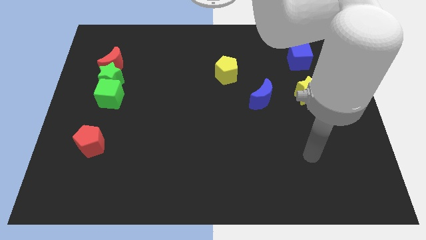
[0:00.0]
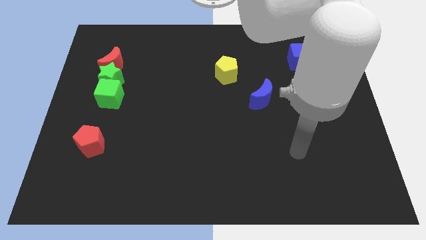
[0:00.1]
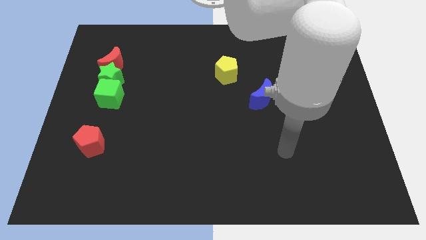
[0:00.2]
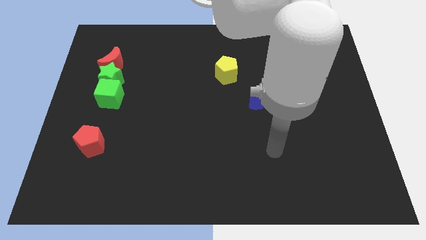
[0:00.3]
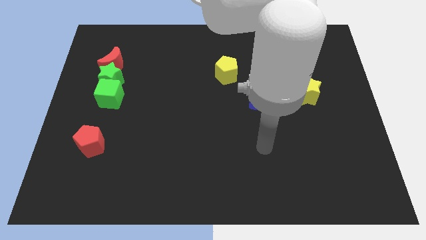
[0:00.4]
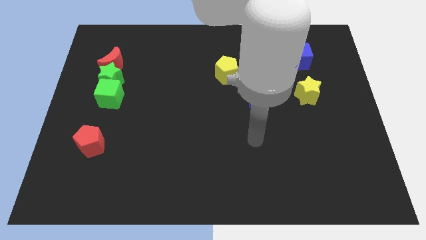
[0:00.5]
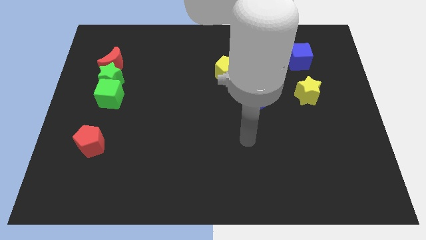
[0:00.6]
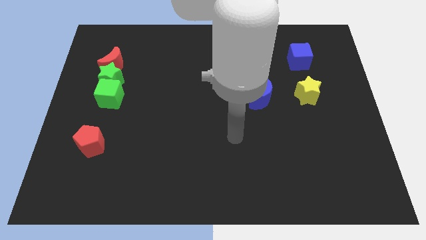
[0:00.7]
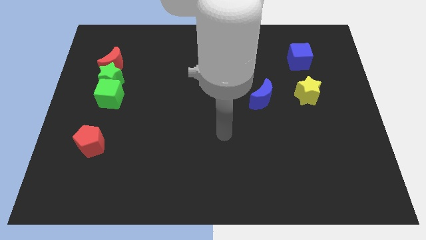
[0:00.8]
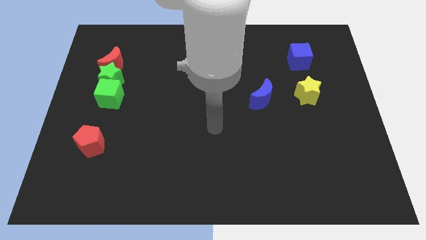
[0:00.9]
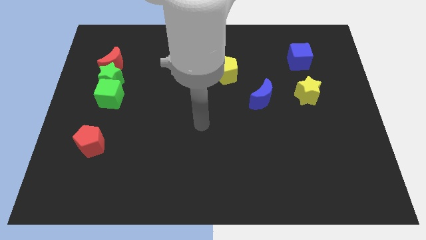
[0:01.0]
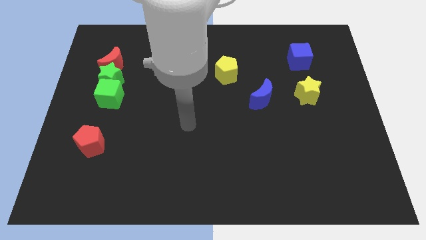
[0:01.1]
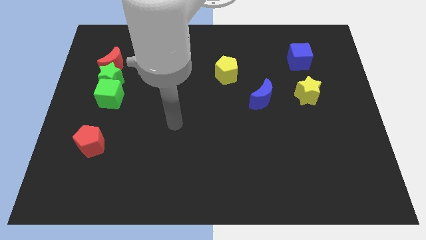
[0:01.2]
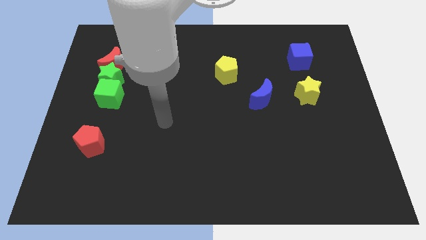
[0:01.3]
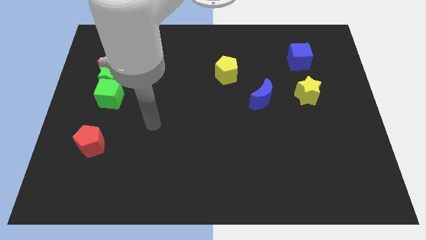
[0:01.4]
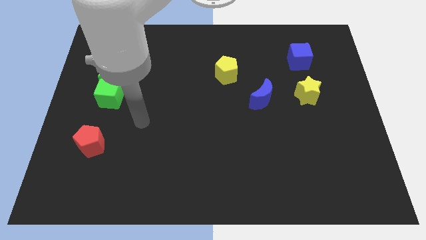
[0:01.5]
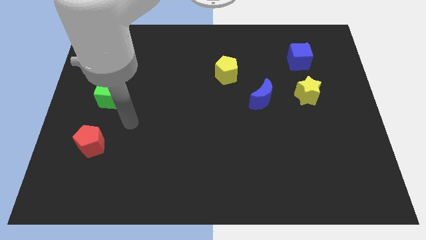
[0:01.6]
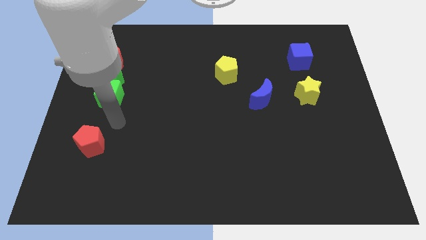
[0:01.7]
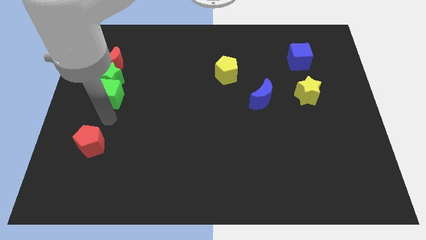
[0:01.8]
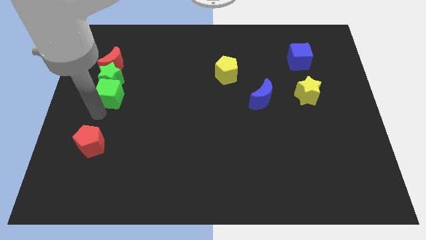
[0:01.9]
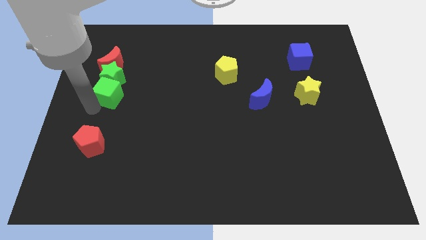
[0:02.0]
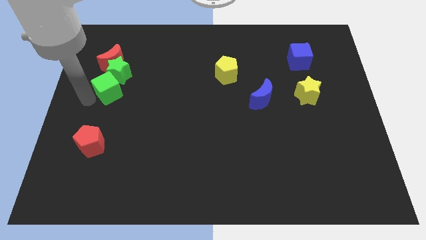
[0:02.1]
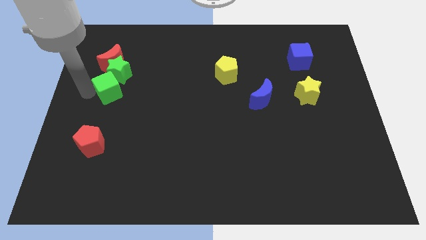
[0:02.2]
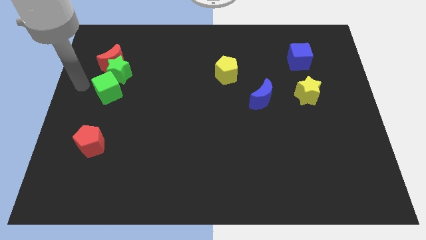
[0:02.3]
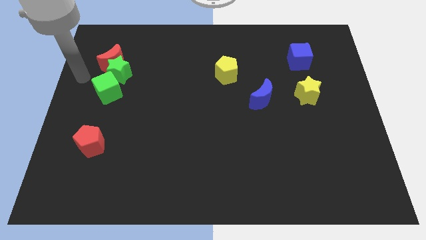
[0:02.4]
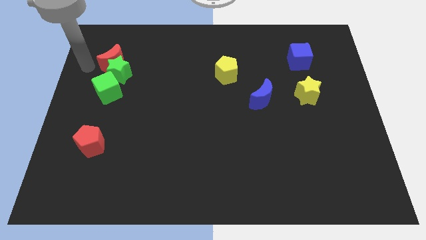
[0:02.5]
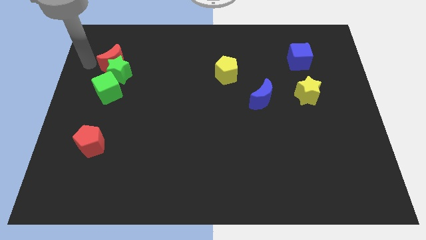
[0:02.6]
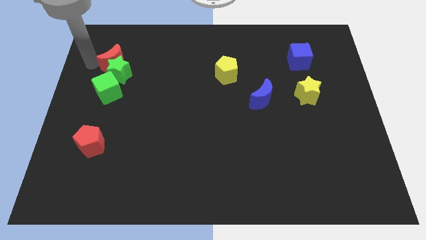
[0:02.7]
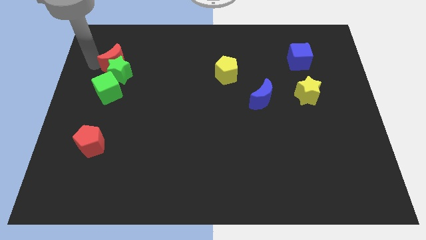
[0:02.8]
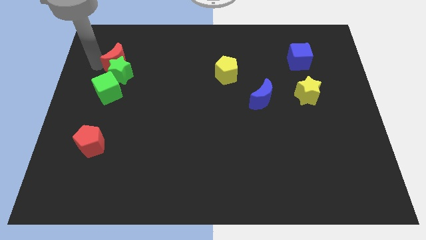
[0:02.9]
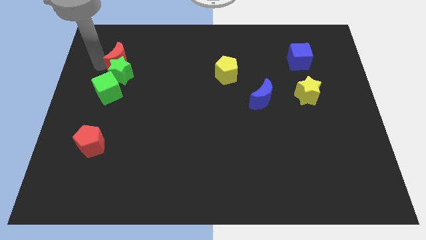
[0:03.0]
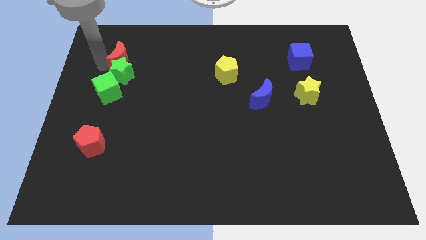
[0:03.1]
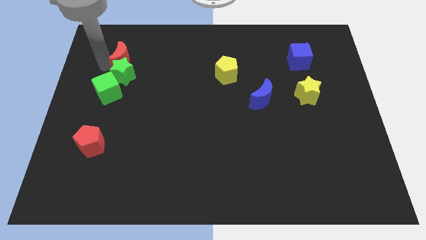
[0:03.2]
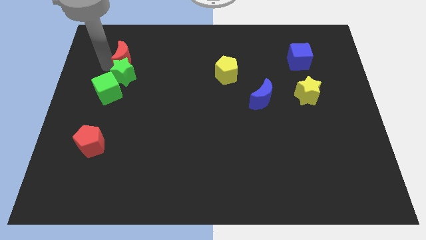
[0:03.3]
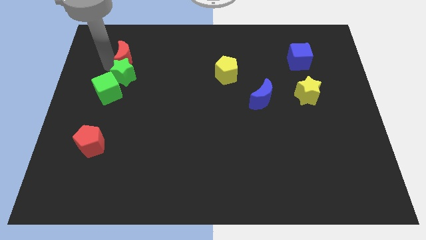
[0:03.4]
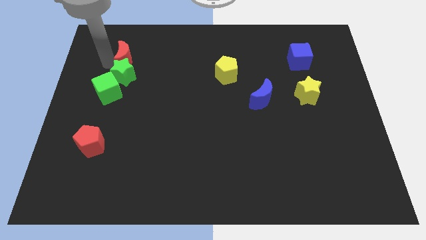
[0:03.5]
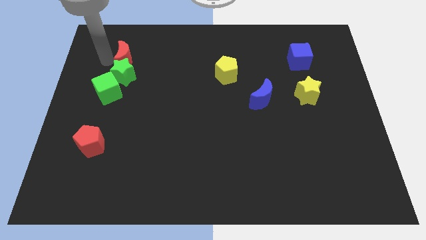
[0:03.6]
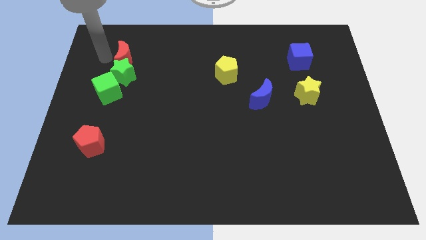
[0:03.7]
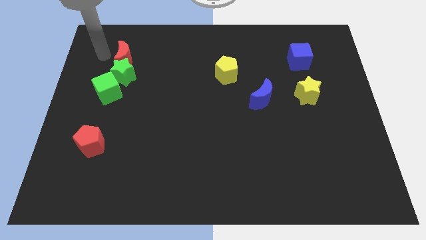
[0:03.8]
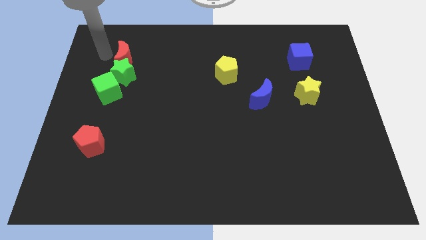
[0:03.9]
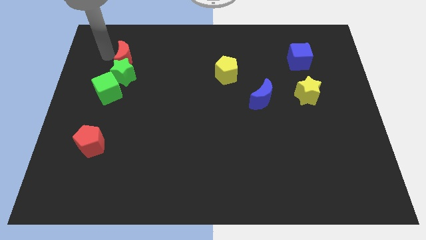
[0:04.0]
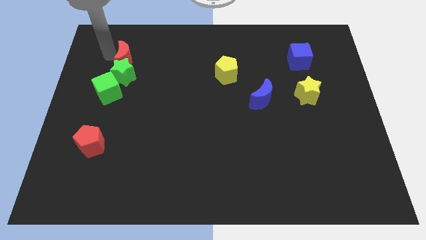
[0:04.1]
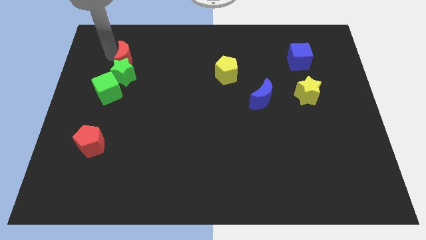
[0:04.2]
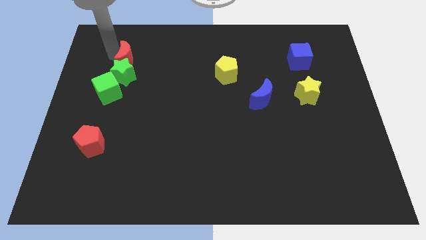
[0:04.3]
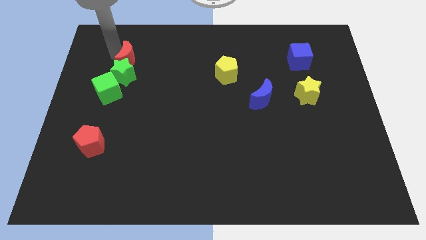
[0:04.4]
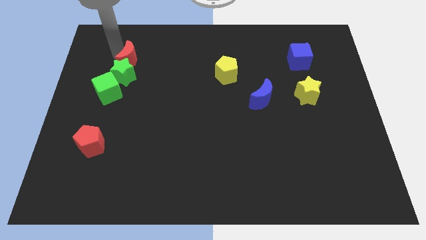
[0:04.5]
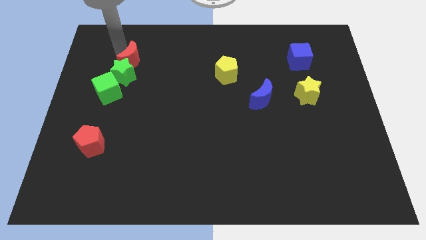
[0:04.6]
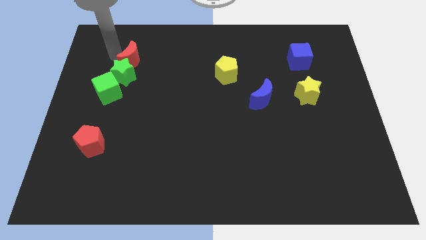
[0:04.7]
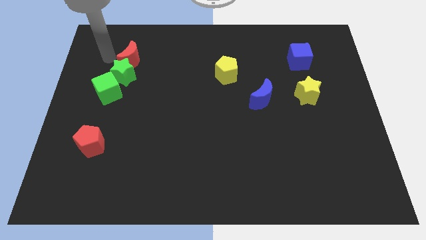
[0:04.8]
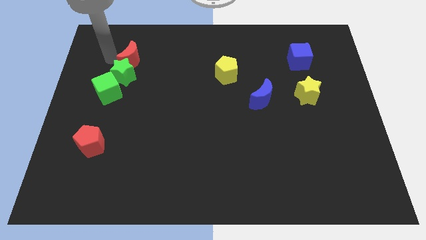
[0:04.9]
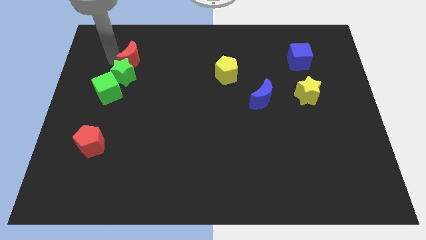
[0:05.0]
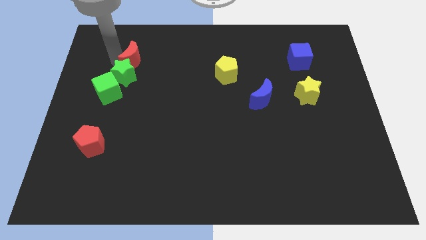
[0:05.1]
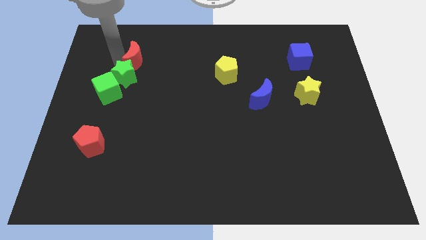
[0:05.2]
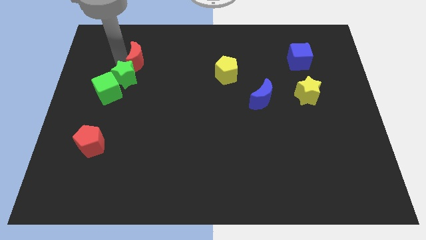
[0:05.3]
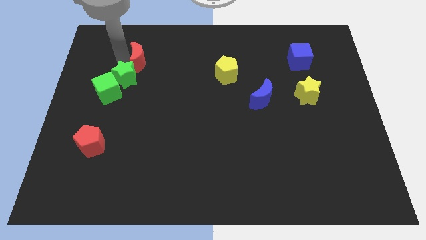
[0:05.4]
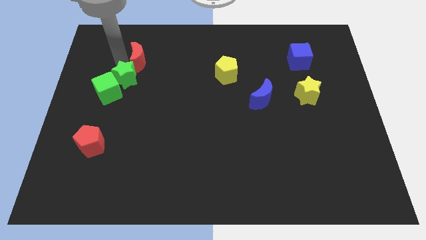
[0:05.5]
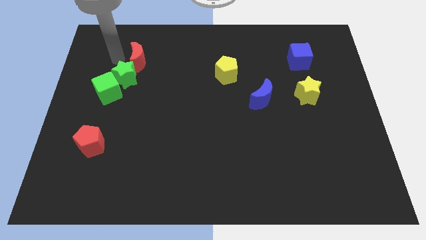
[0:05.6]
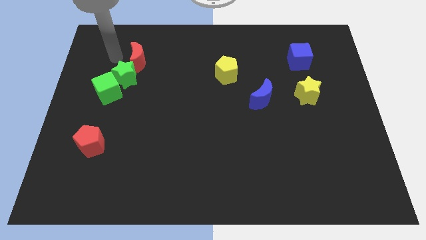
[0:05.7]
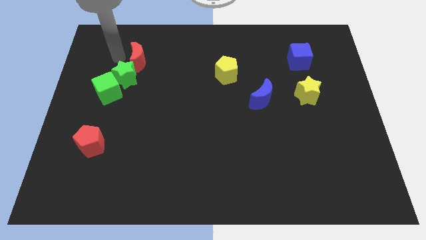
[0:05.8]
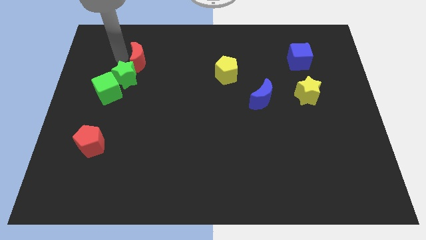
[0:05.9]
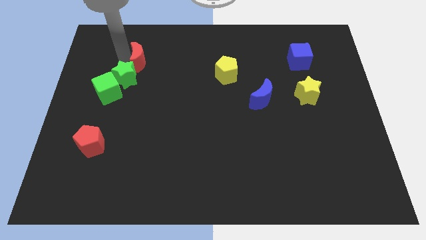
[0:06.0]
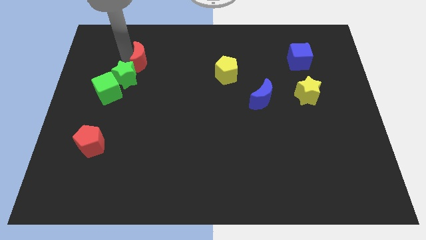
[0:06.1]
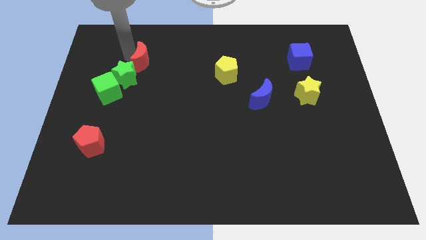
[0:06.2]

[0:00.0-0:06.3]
slightly move the red moon right

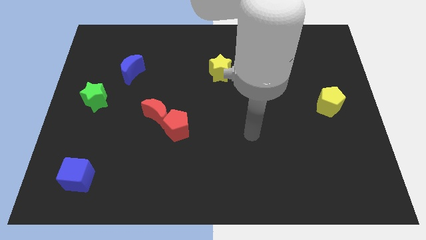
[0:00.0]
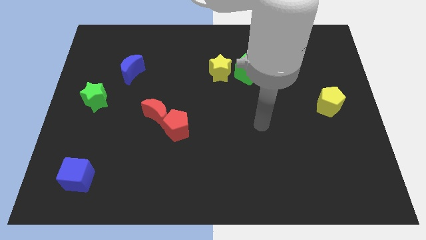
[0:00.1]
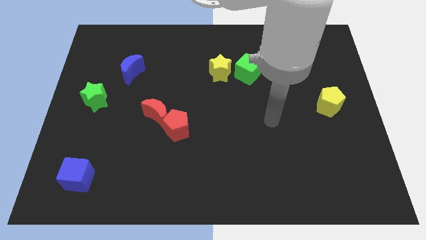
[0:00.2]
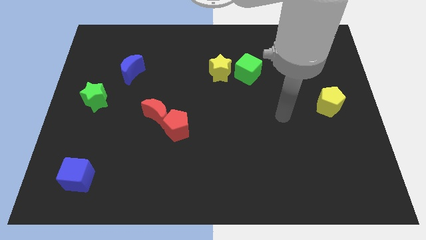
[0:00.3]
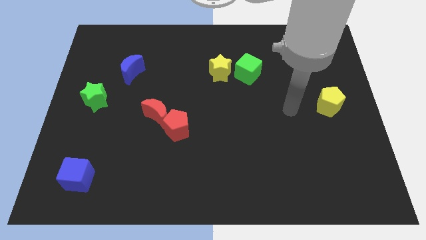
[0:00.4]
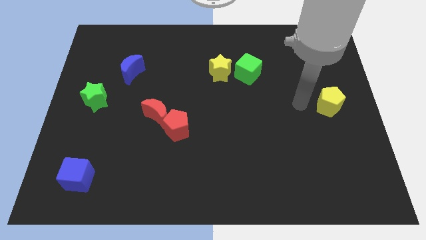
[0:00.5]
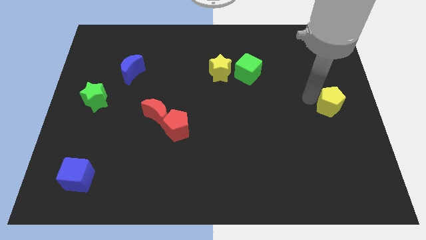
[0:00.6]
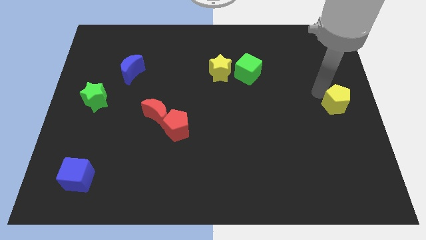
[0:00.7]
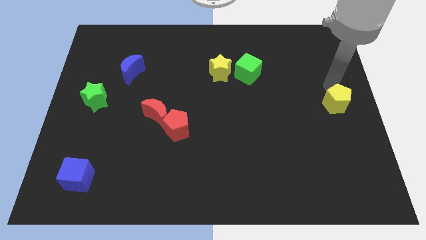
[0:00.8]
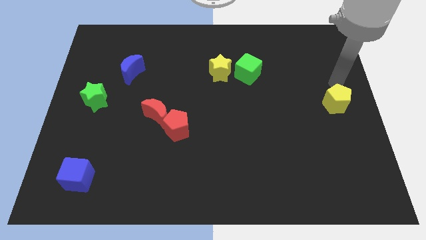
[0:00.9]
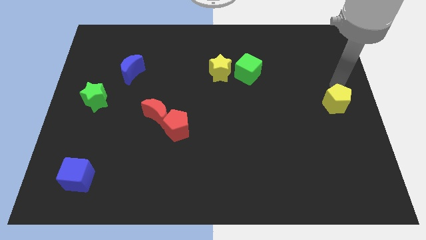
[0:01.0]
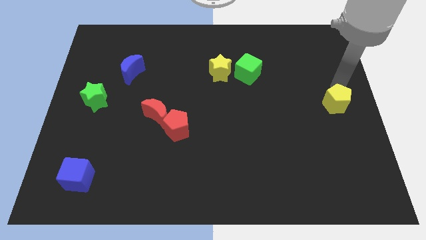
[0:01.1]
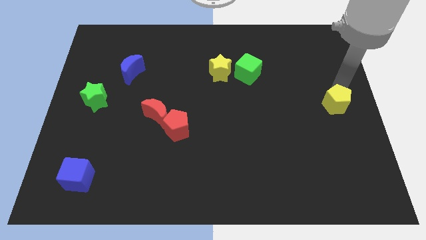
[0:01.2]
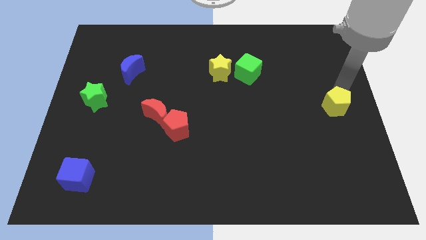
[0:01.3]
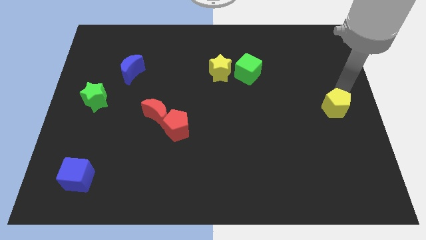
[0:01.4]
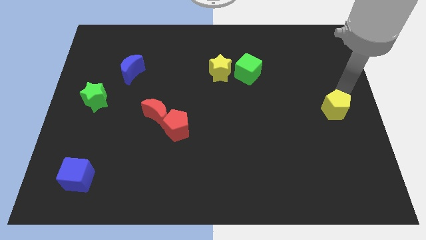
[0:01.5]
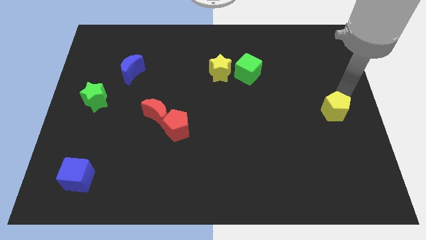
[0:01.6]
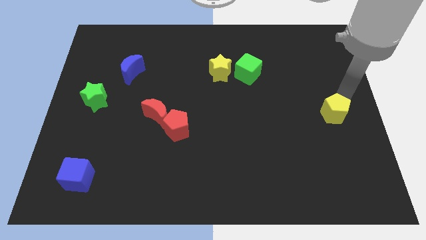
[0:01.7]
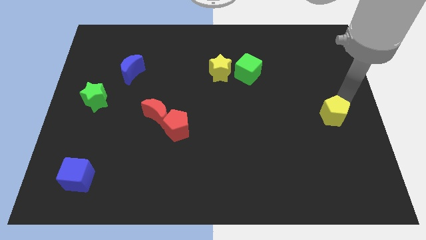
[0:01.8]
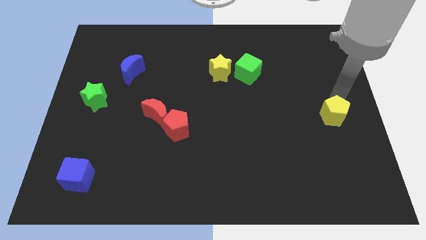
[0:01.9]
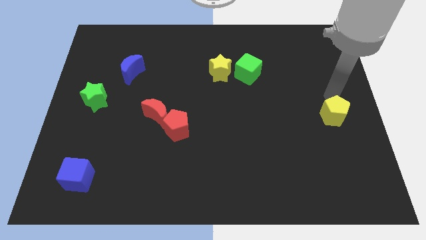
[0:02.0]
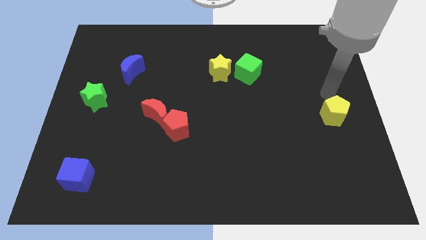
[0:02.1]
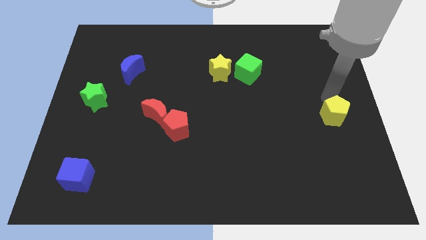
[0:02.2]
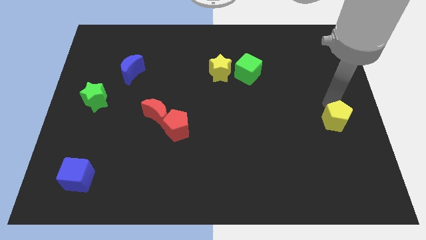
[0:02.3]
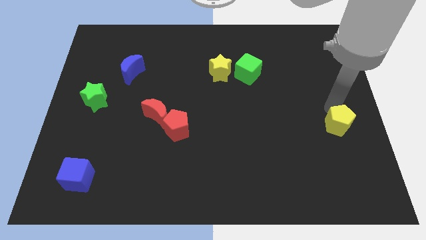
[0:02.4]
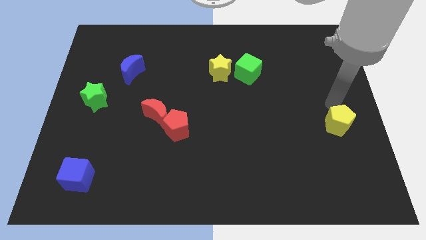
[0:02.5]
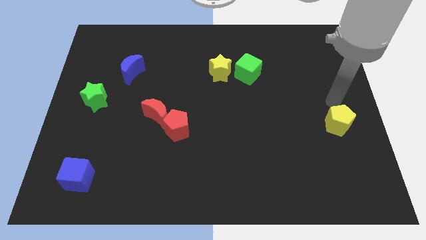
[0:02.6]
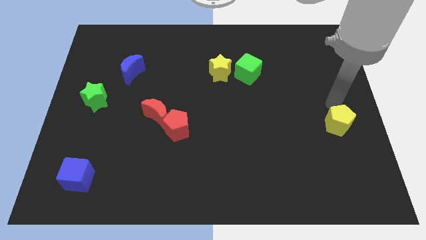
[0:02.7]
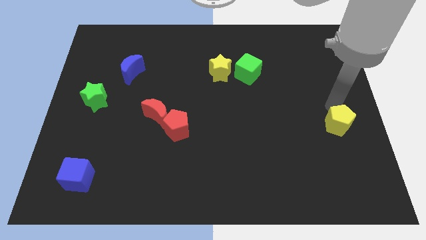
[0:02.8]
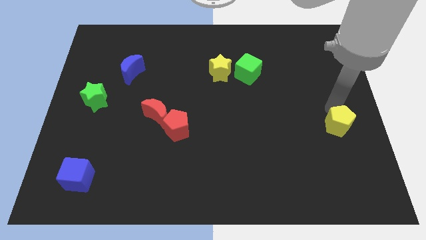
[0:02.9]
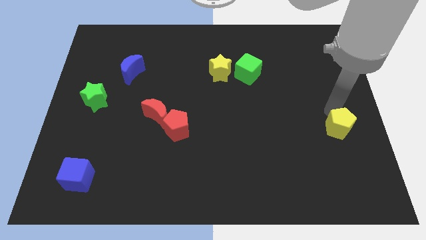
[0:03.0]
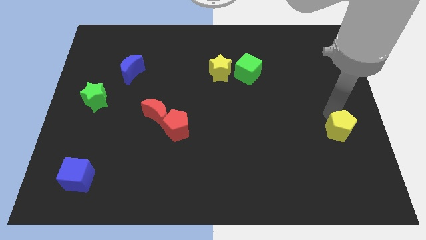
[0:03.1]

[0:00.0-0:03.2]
slightly slide the yellow pentagon down
